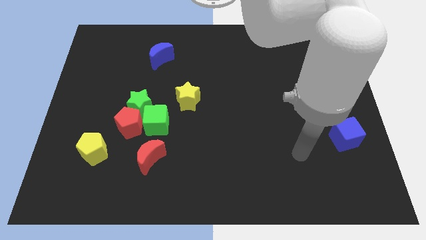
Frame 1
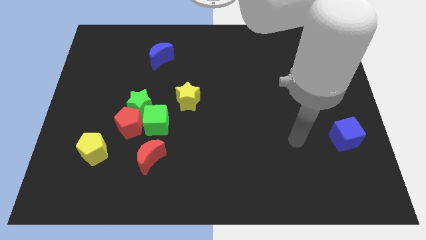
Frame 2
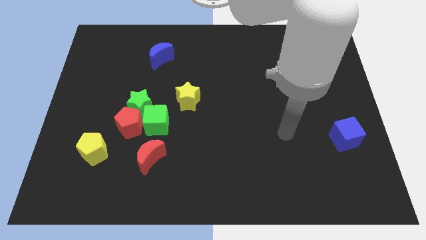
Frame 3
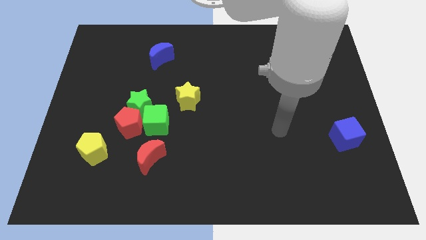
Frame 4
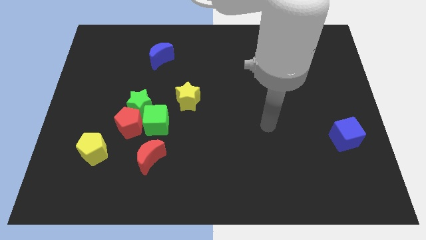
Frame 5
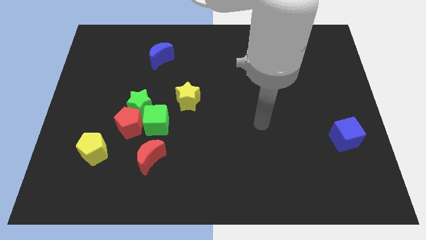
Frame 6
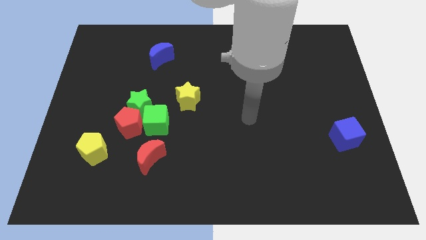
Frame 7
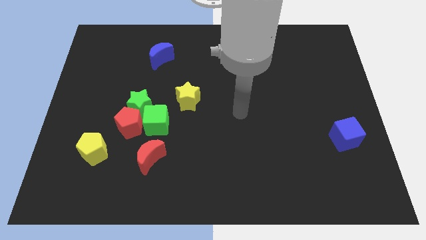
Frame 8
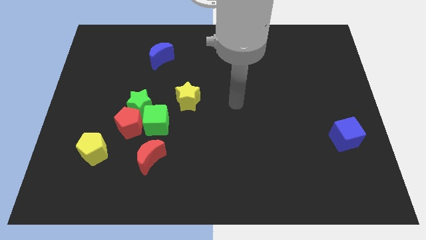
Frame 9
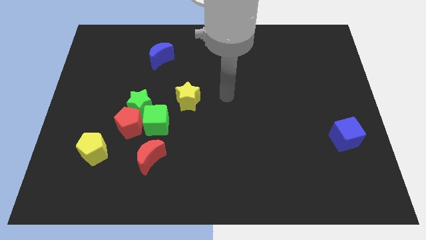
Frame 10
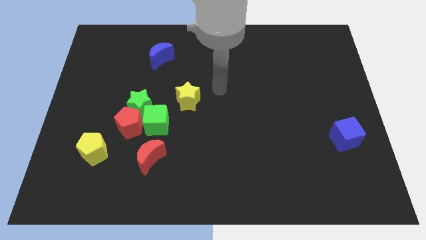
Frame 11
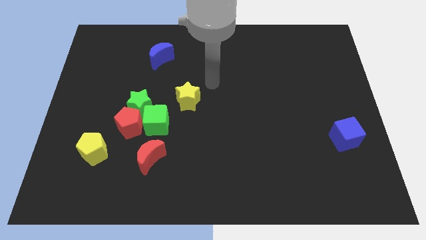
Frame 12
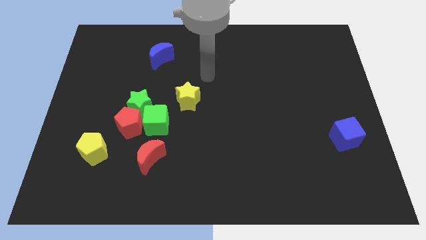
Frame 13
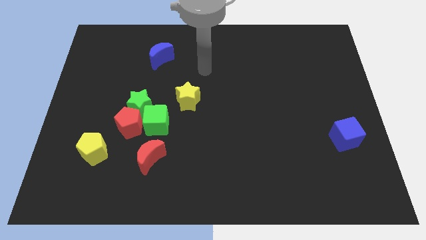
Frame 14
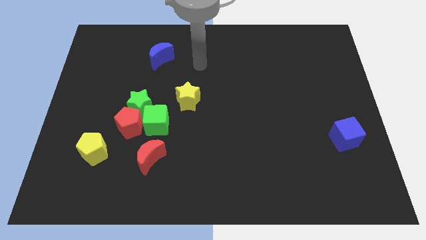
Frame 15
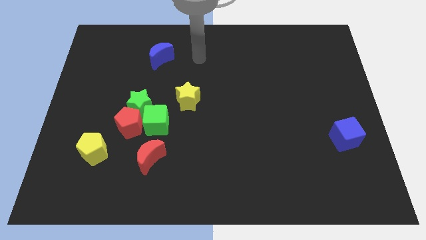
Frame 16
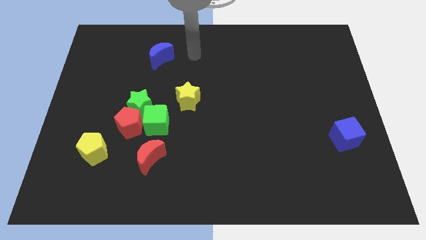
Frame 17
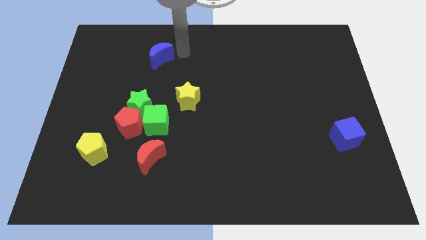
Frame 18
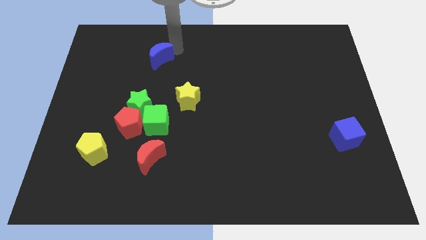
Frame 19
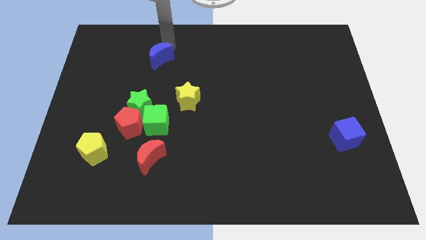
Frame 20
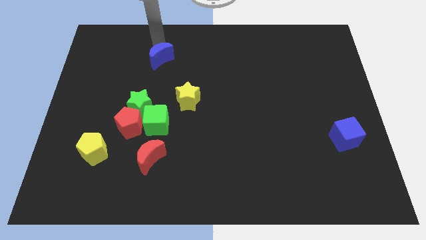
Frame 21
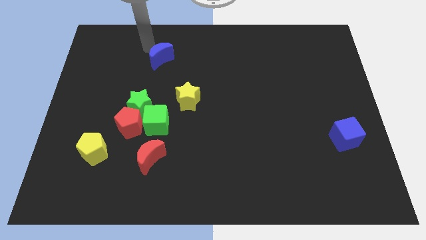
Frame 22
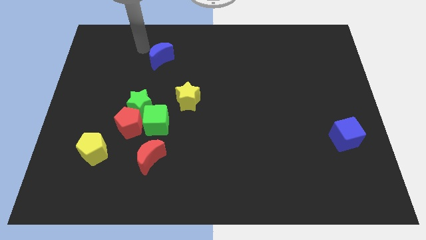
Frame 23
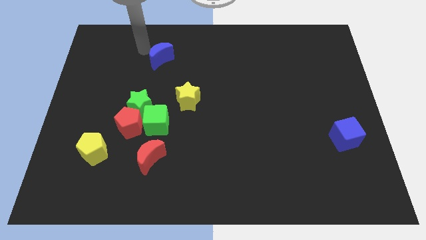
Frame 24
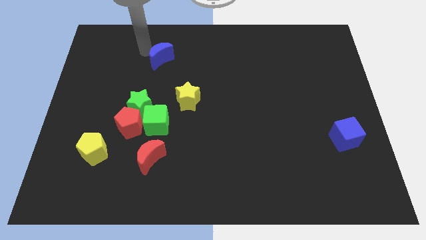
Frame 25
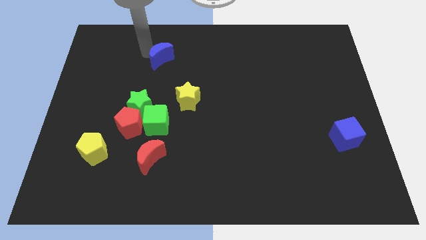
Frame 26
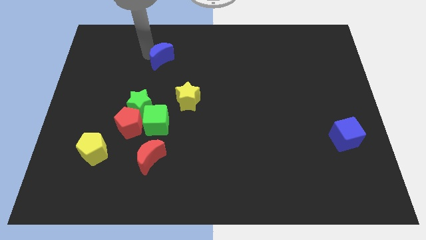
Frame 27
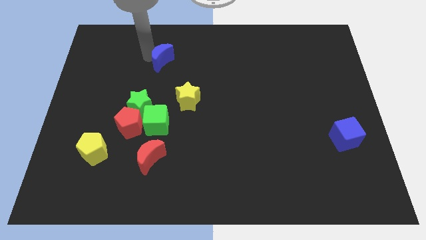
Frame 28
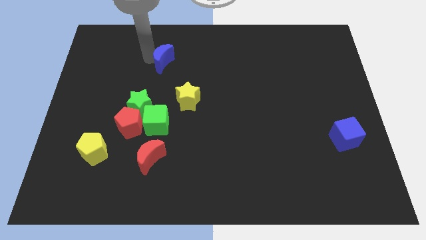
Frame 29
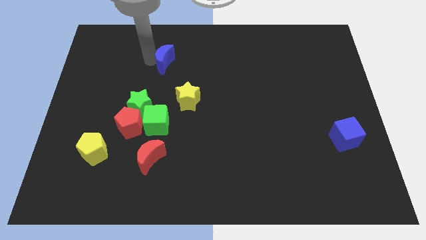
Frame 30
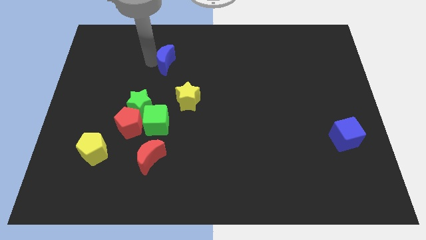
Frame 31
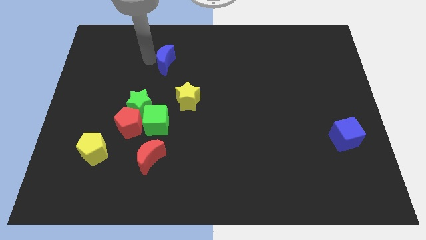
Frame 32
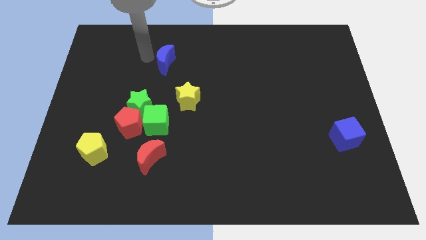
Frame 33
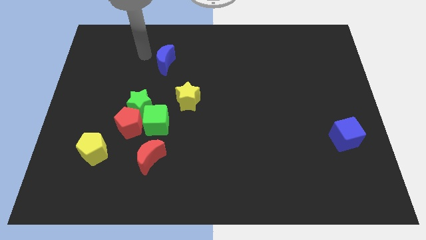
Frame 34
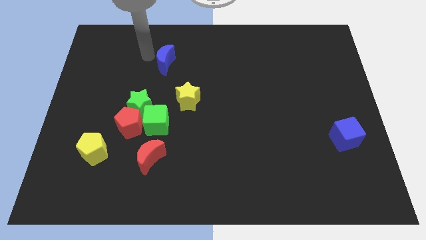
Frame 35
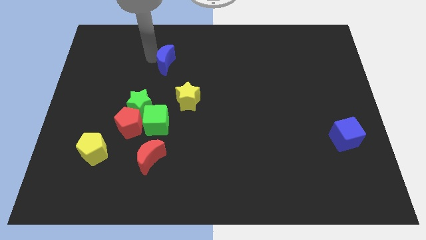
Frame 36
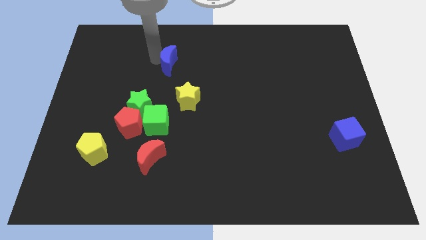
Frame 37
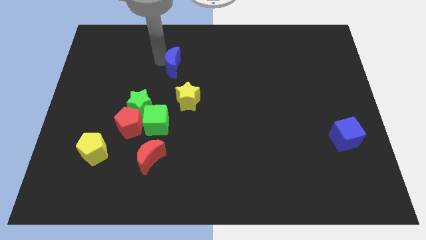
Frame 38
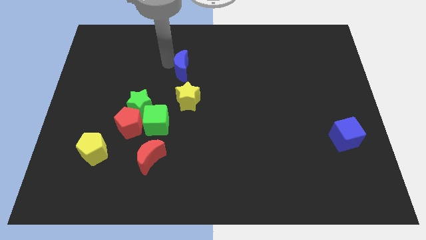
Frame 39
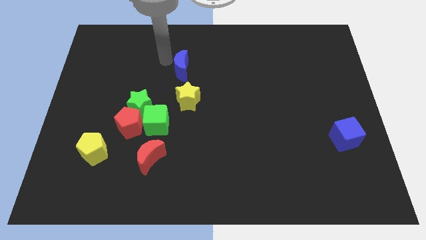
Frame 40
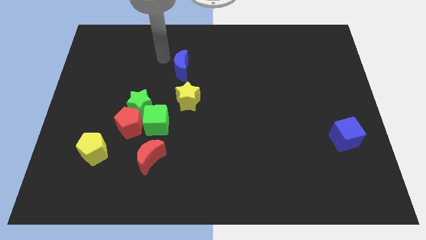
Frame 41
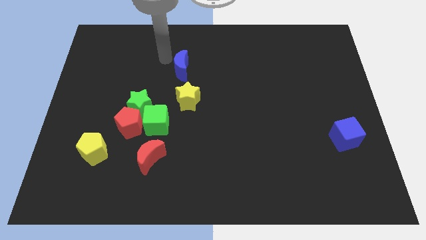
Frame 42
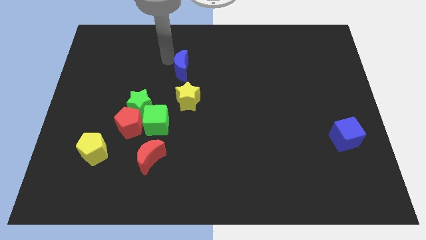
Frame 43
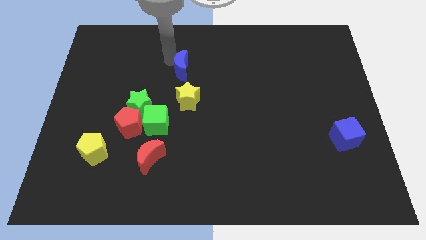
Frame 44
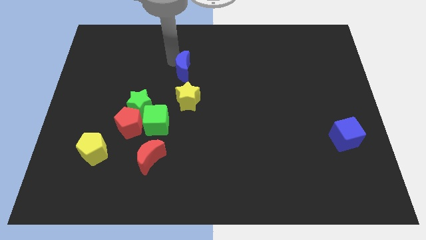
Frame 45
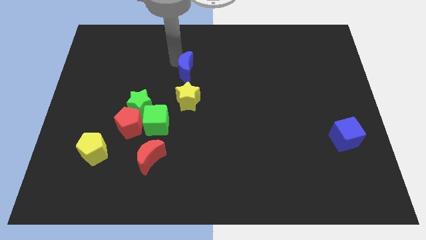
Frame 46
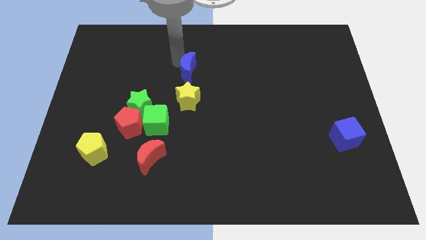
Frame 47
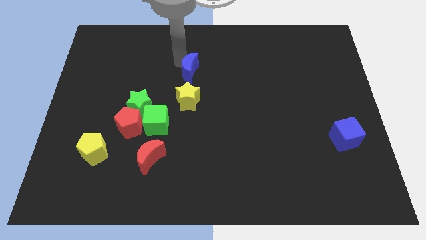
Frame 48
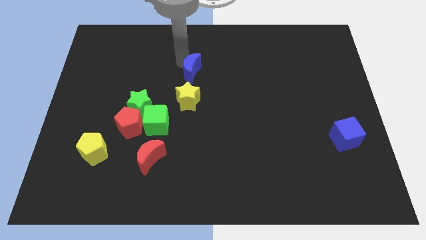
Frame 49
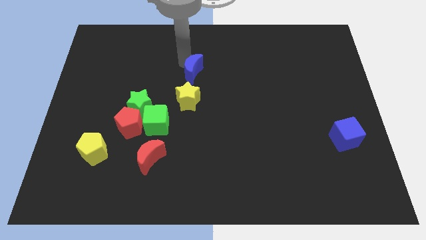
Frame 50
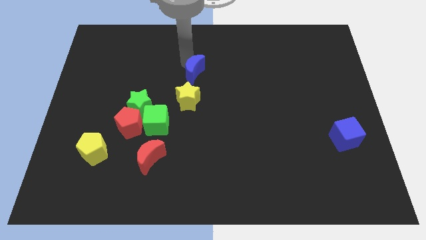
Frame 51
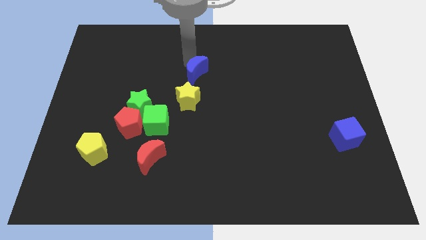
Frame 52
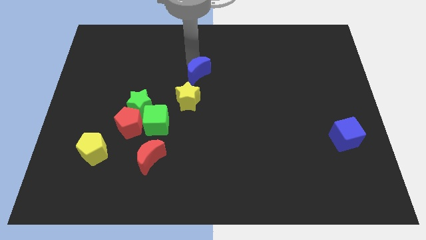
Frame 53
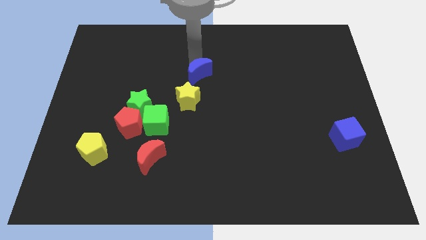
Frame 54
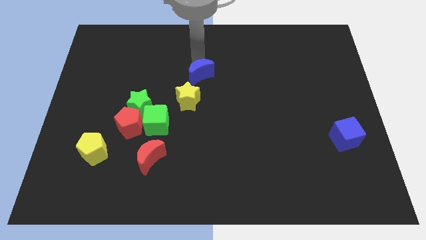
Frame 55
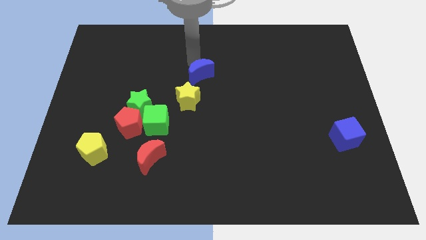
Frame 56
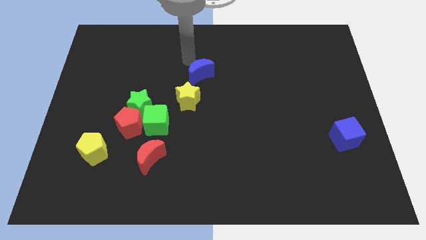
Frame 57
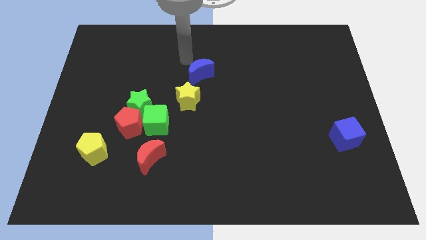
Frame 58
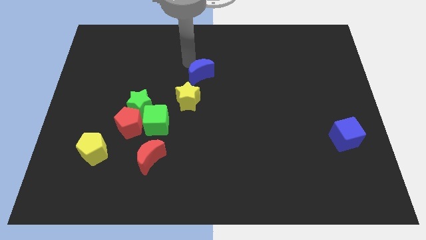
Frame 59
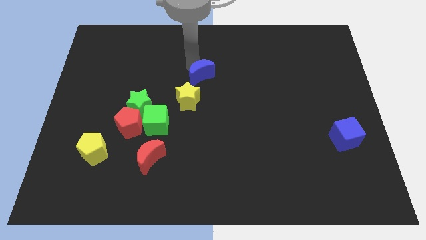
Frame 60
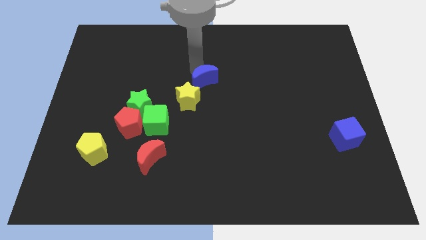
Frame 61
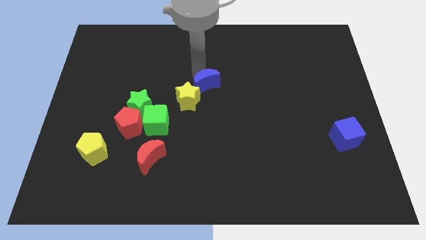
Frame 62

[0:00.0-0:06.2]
slide the blue moon to the right of the yellow star

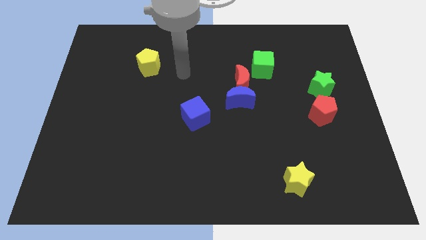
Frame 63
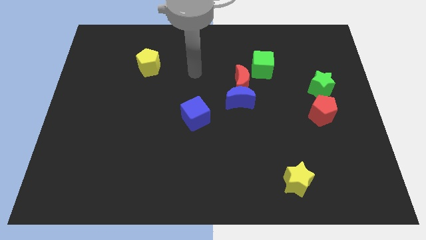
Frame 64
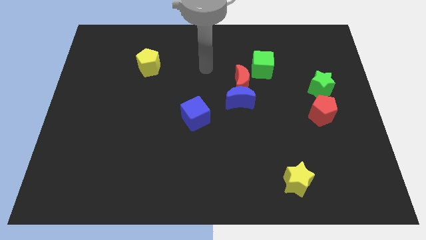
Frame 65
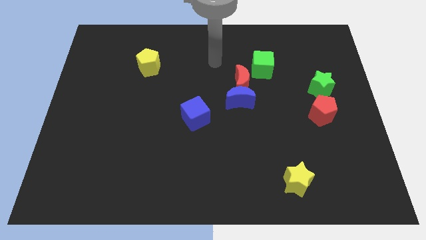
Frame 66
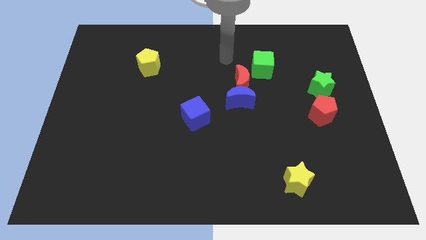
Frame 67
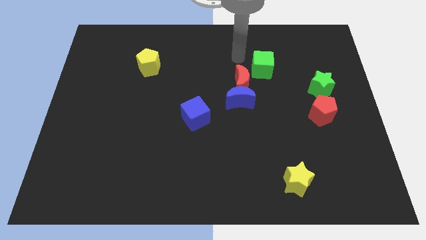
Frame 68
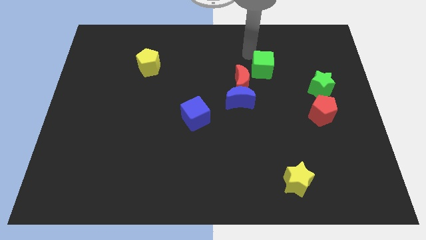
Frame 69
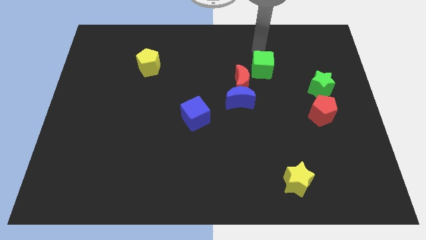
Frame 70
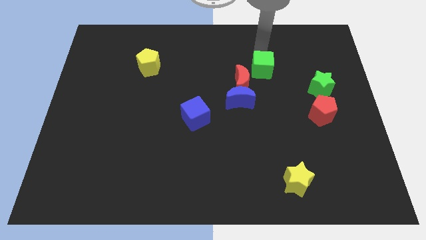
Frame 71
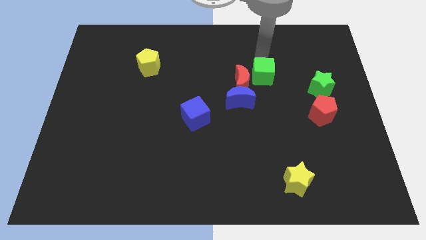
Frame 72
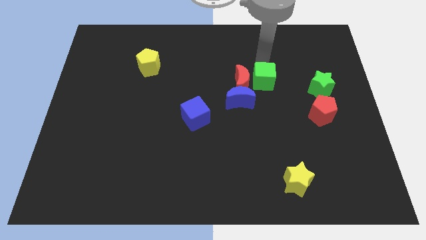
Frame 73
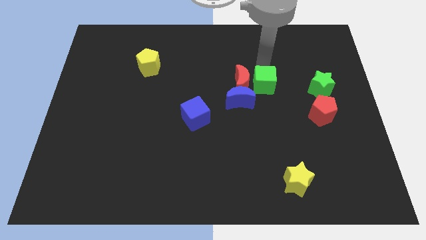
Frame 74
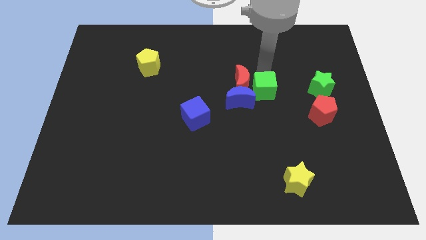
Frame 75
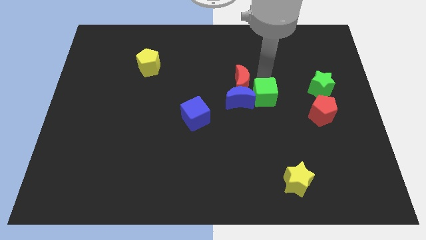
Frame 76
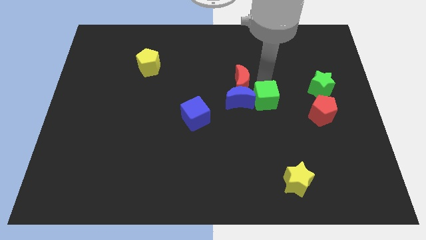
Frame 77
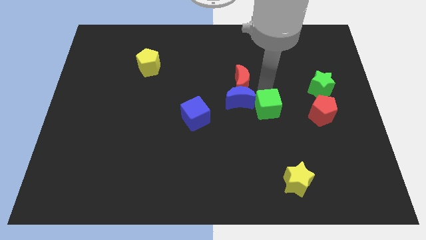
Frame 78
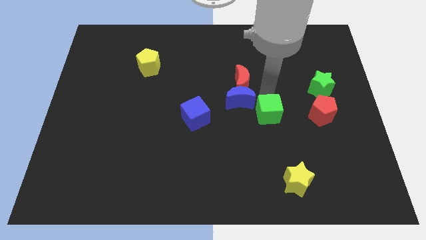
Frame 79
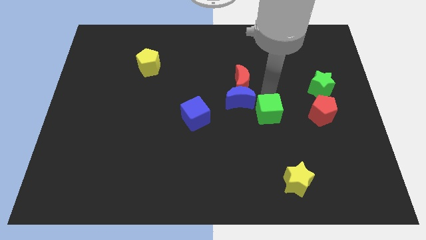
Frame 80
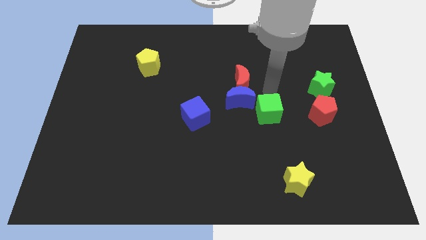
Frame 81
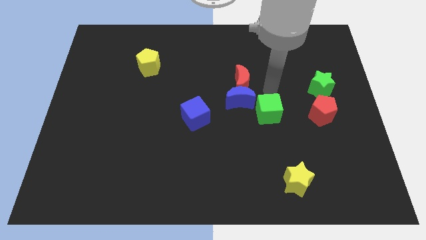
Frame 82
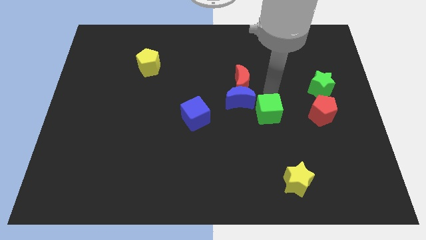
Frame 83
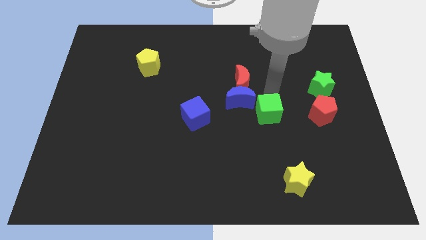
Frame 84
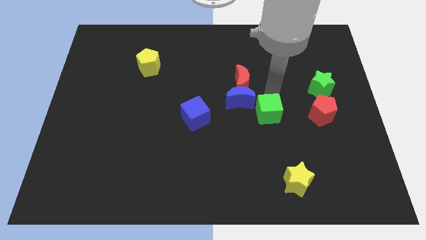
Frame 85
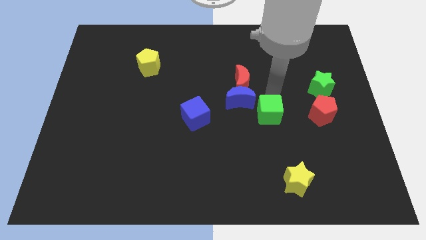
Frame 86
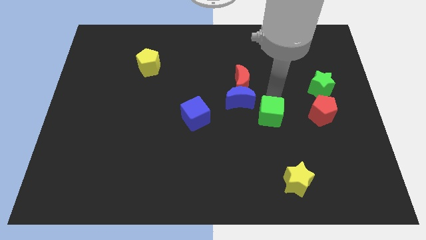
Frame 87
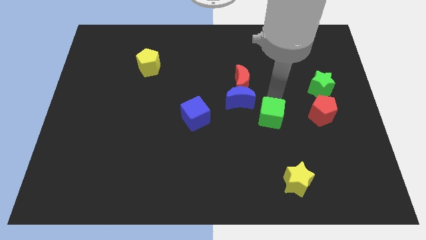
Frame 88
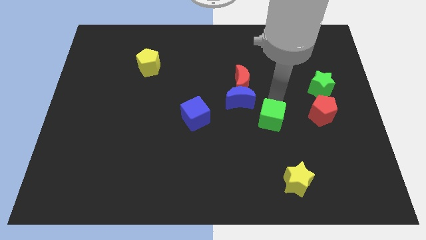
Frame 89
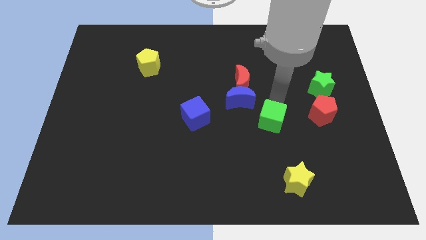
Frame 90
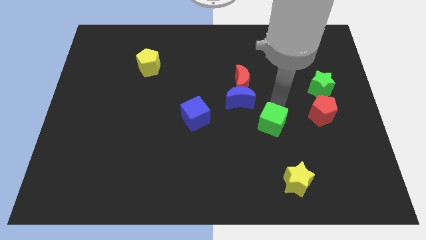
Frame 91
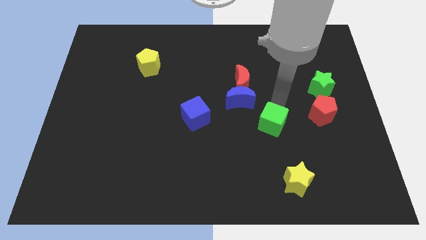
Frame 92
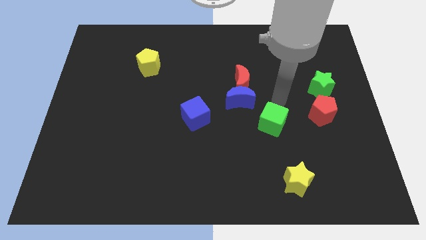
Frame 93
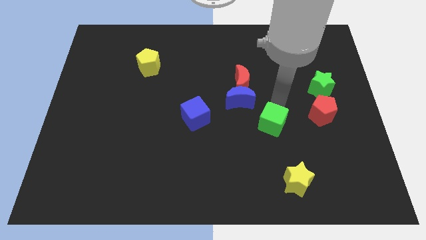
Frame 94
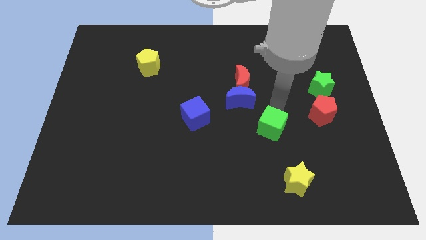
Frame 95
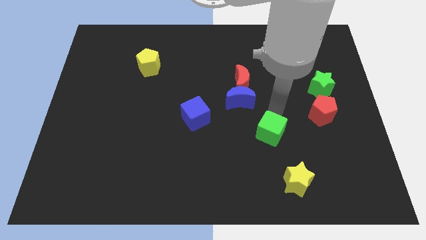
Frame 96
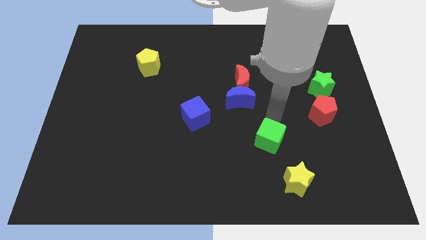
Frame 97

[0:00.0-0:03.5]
put the green cube to the top left of the yellow star
